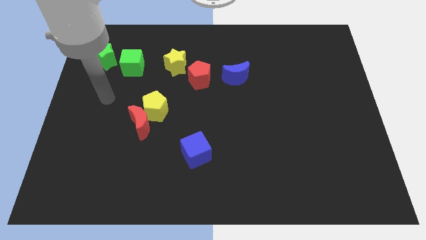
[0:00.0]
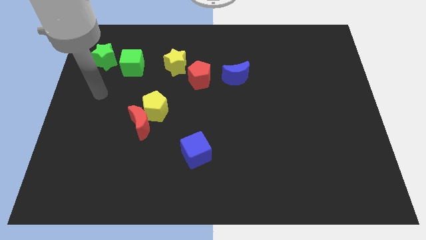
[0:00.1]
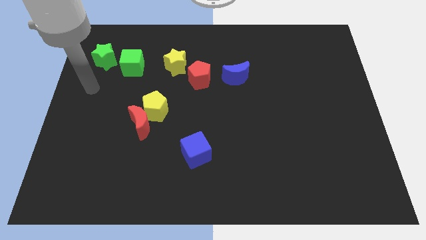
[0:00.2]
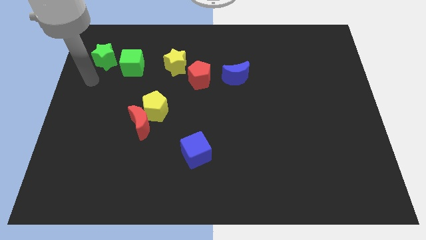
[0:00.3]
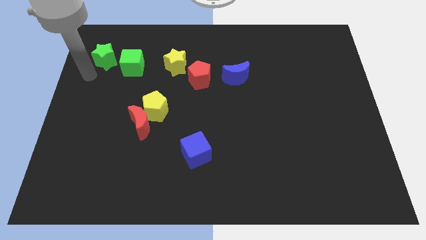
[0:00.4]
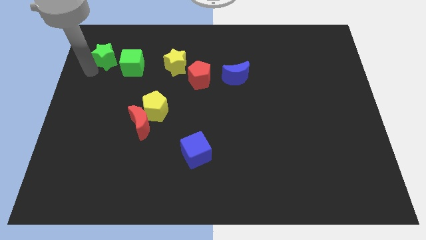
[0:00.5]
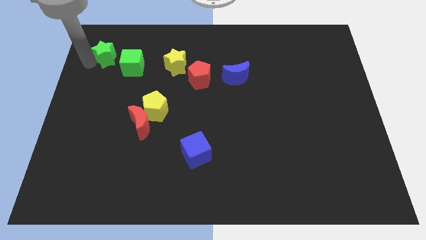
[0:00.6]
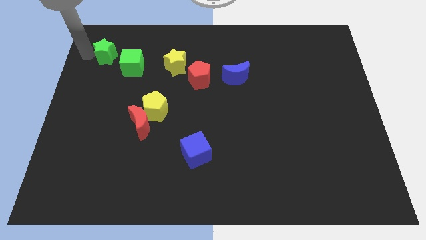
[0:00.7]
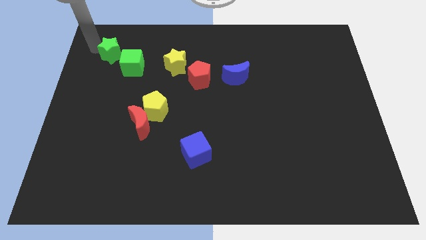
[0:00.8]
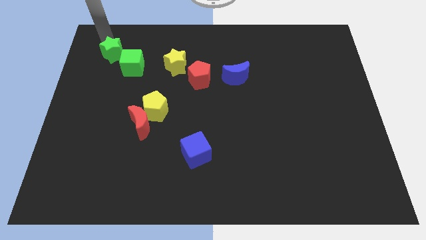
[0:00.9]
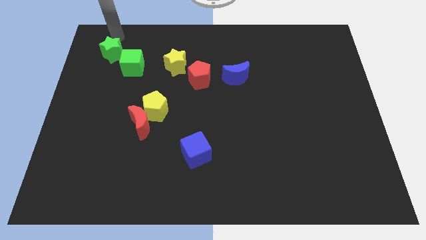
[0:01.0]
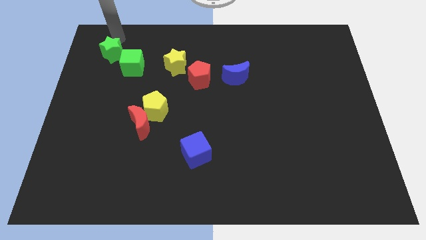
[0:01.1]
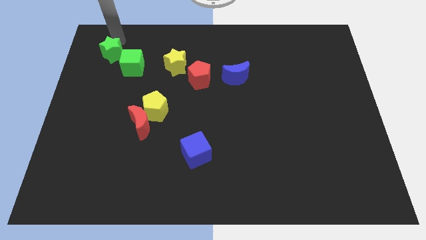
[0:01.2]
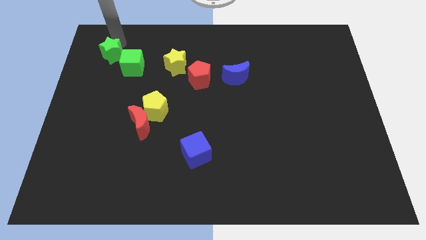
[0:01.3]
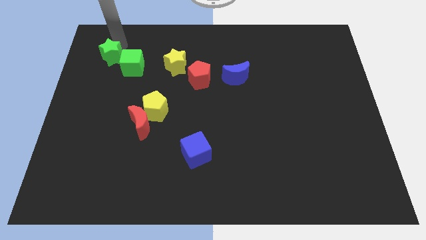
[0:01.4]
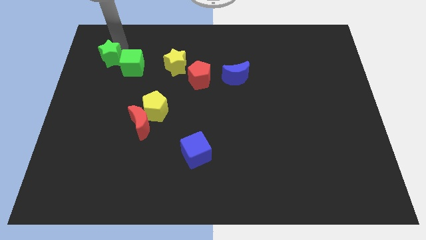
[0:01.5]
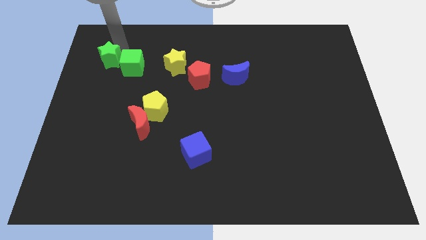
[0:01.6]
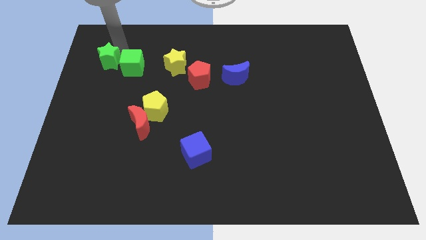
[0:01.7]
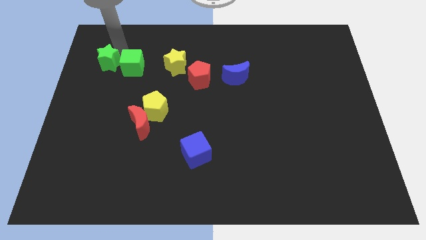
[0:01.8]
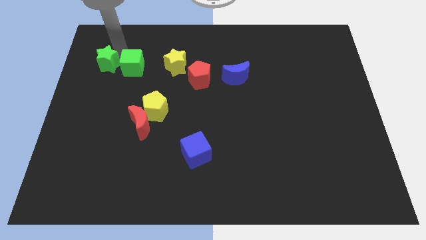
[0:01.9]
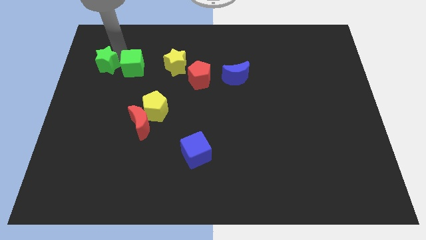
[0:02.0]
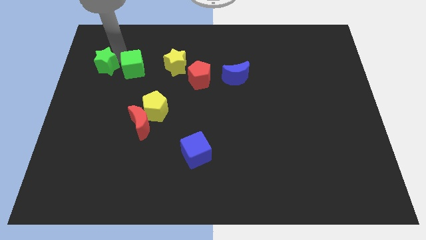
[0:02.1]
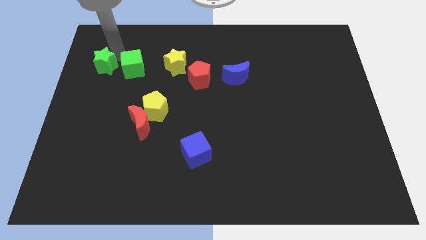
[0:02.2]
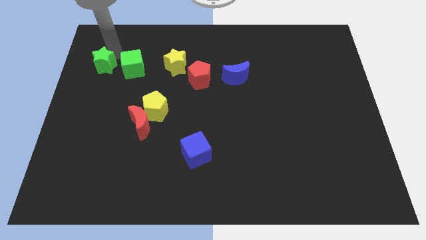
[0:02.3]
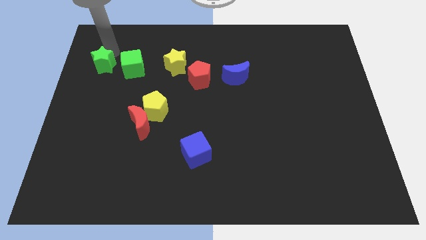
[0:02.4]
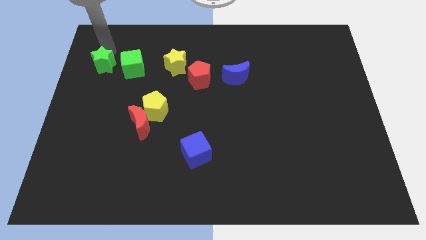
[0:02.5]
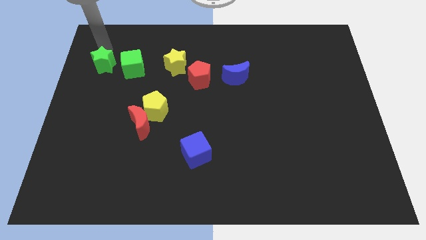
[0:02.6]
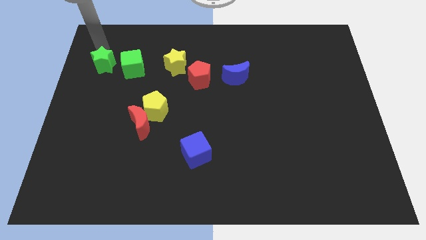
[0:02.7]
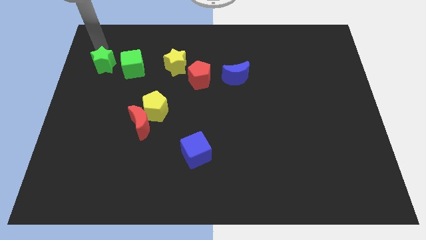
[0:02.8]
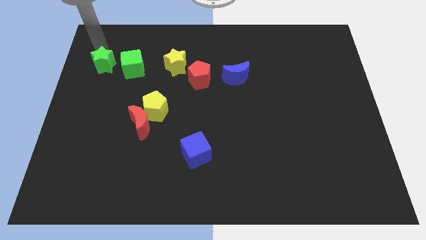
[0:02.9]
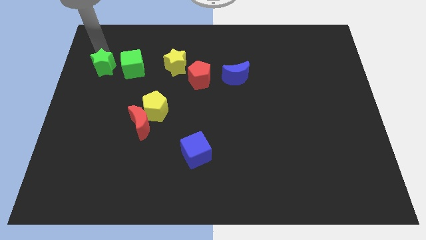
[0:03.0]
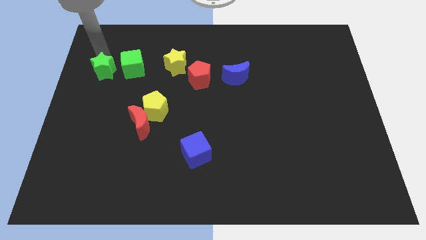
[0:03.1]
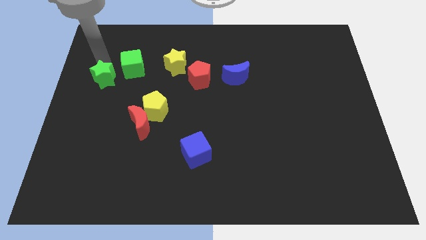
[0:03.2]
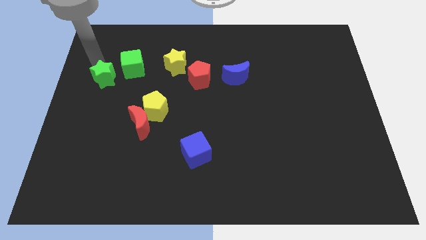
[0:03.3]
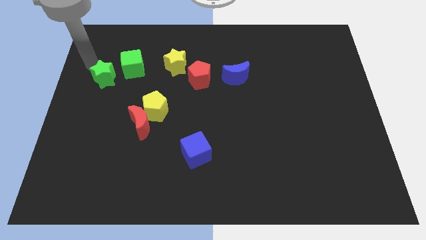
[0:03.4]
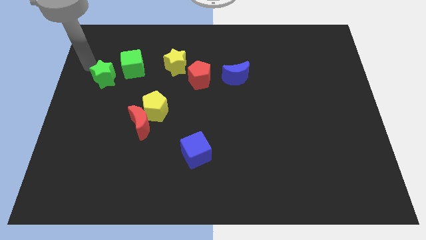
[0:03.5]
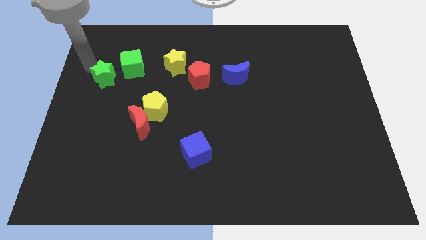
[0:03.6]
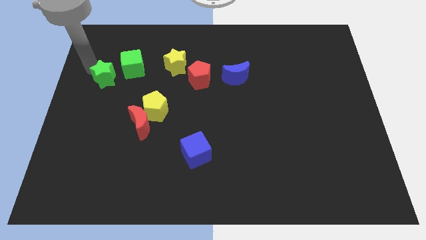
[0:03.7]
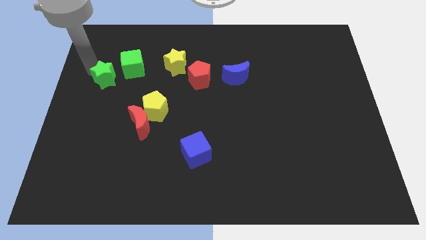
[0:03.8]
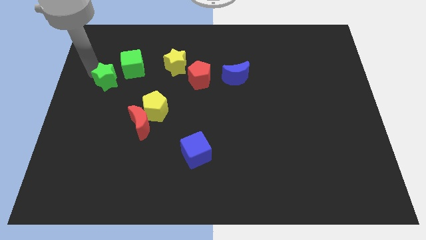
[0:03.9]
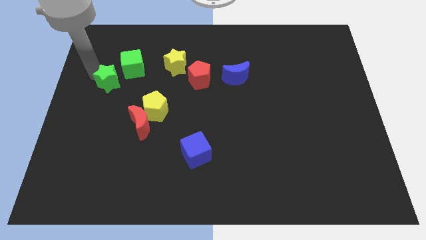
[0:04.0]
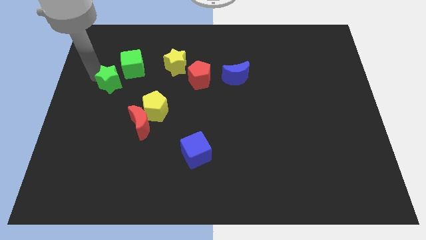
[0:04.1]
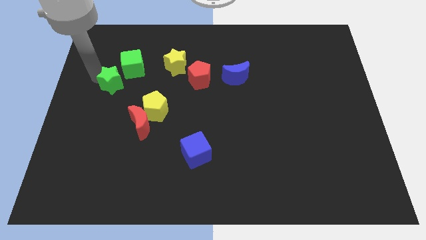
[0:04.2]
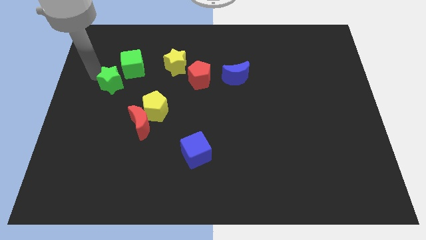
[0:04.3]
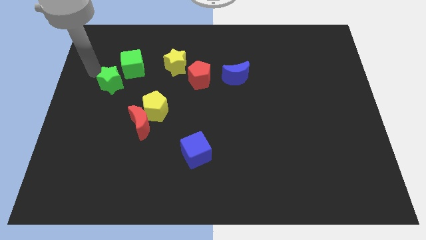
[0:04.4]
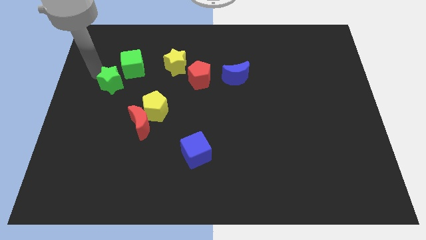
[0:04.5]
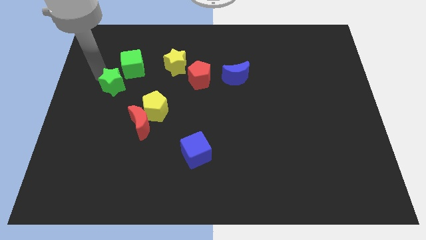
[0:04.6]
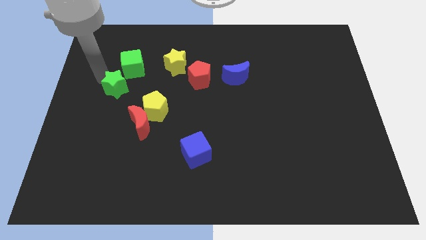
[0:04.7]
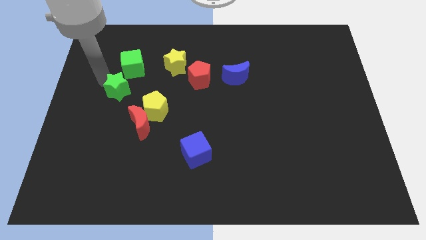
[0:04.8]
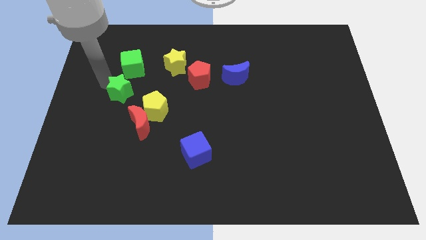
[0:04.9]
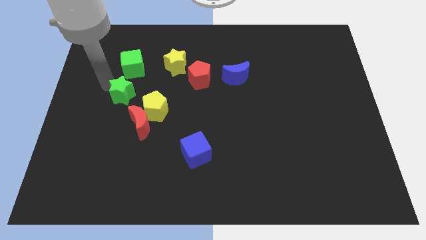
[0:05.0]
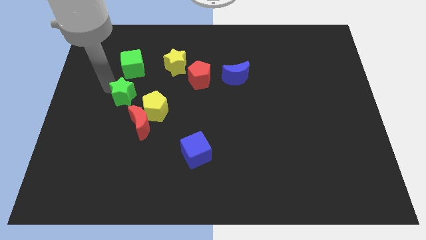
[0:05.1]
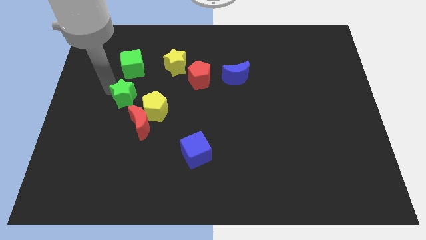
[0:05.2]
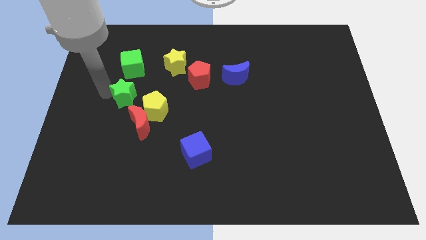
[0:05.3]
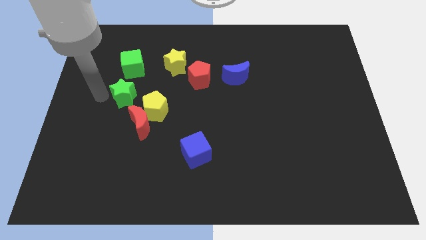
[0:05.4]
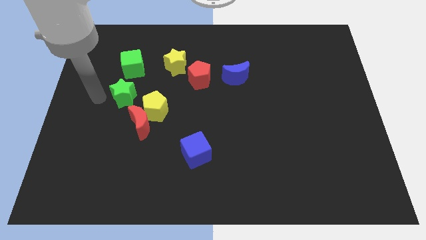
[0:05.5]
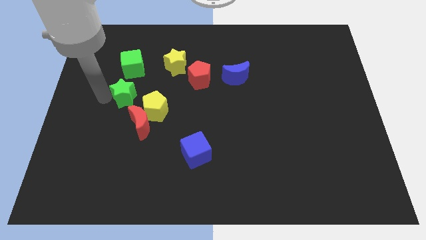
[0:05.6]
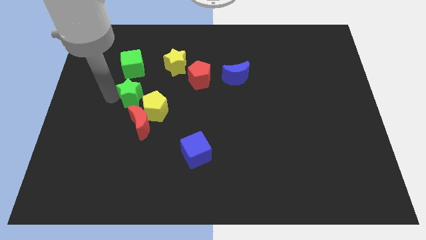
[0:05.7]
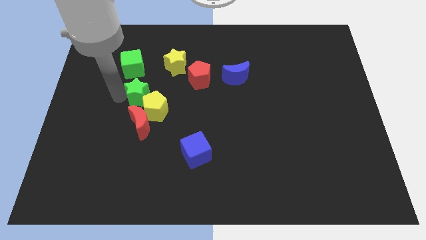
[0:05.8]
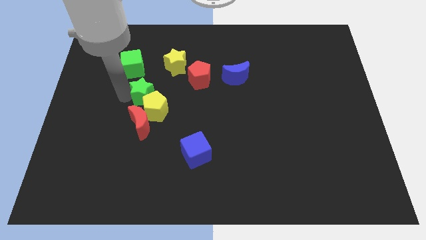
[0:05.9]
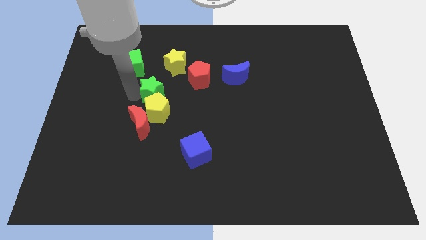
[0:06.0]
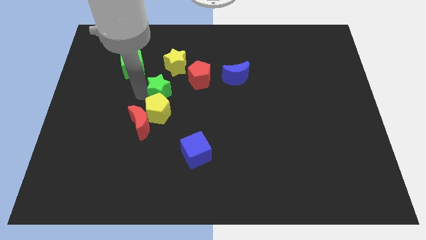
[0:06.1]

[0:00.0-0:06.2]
push the green star diagonally down and to the left of the red pentagon
